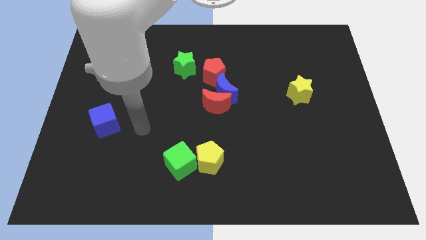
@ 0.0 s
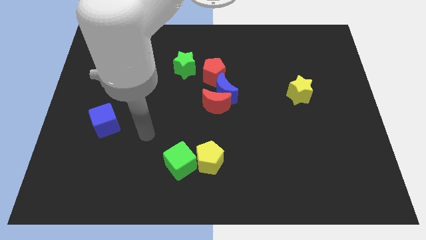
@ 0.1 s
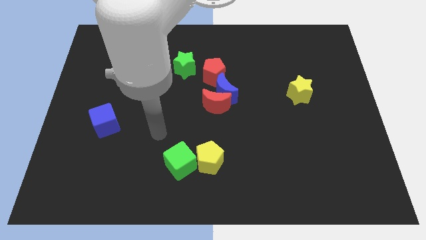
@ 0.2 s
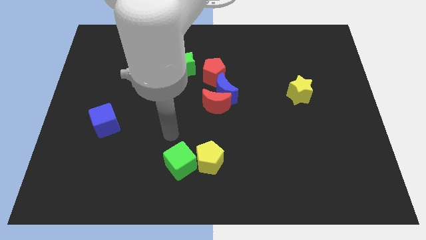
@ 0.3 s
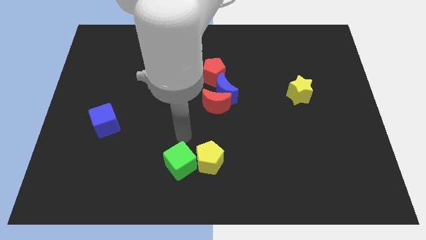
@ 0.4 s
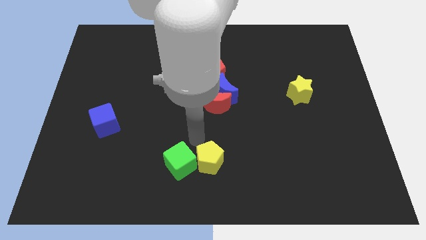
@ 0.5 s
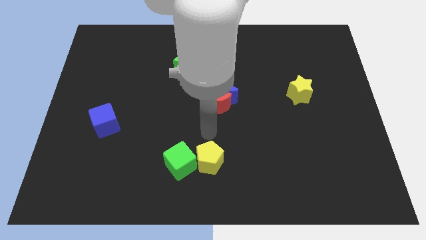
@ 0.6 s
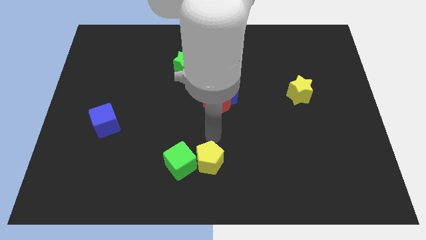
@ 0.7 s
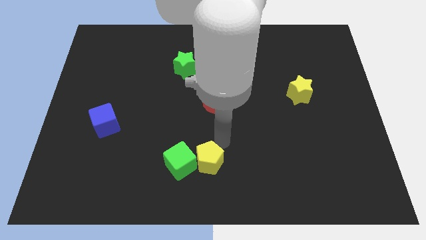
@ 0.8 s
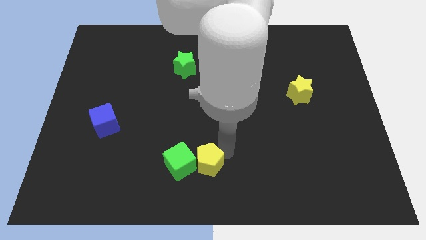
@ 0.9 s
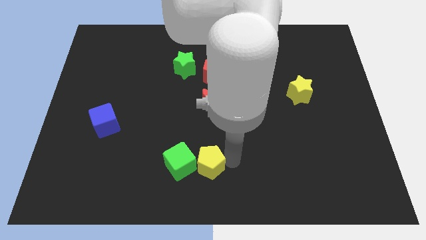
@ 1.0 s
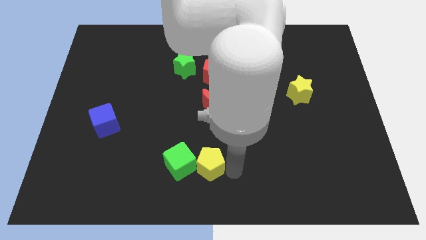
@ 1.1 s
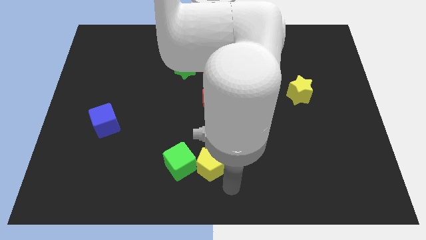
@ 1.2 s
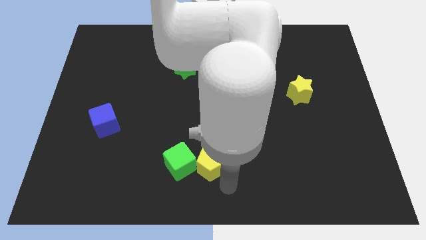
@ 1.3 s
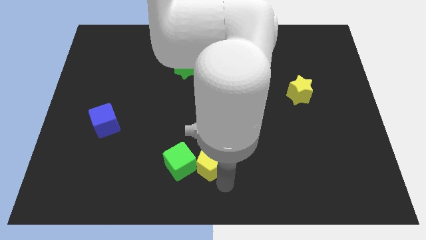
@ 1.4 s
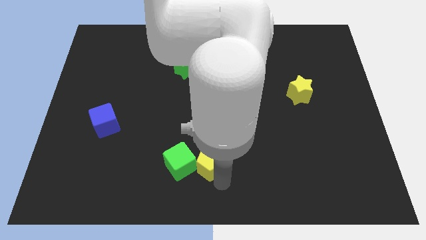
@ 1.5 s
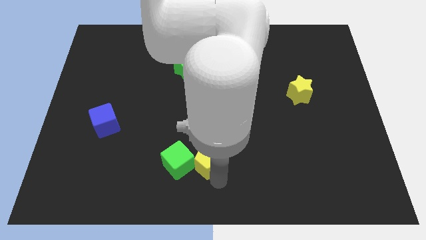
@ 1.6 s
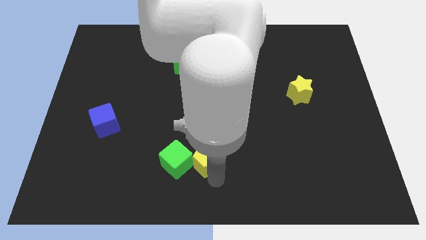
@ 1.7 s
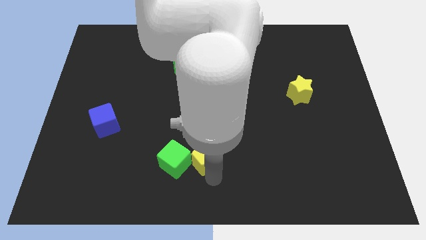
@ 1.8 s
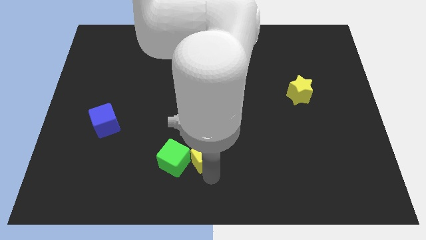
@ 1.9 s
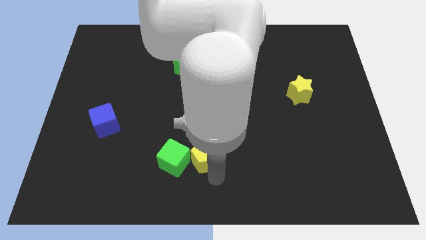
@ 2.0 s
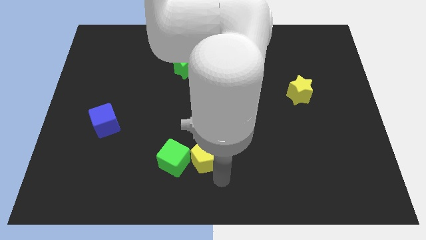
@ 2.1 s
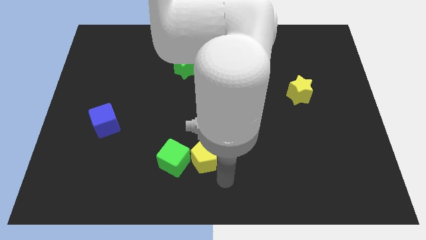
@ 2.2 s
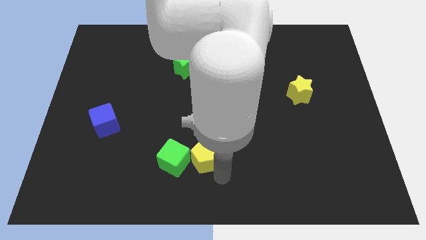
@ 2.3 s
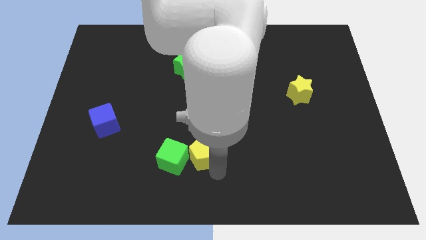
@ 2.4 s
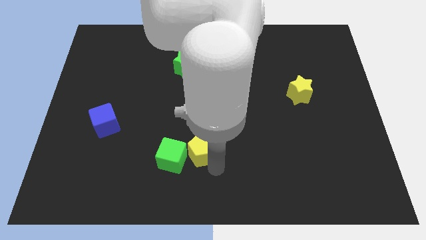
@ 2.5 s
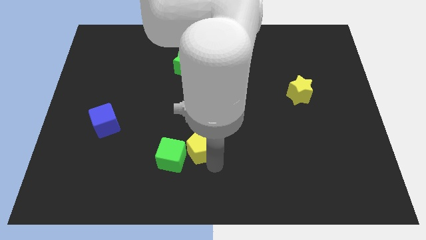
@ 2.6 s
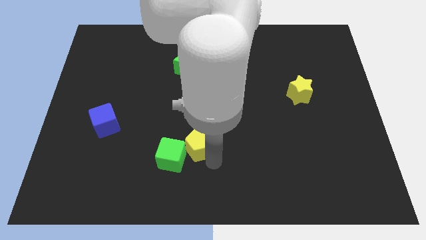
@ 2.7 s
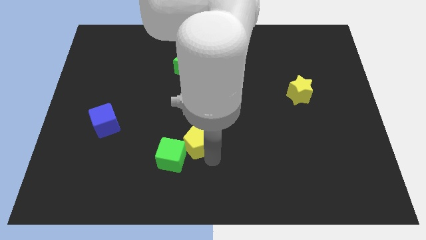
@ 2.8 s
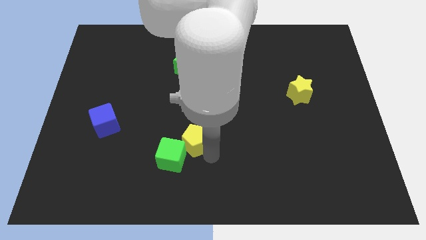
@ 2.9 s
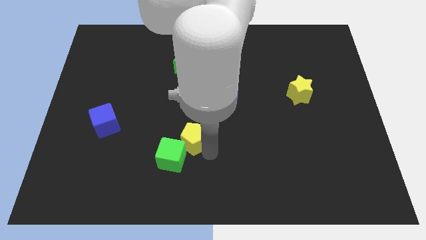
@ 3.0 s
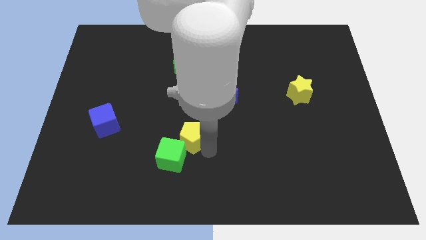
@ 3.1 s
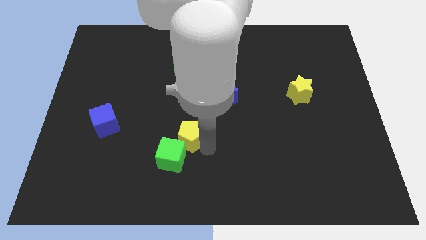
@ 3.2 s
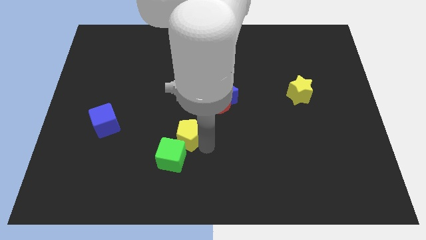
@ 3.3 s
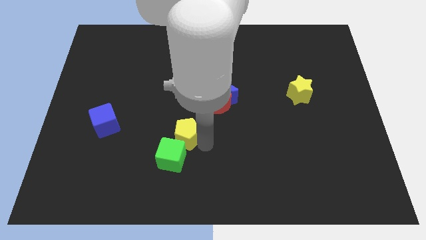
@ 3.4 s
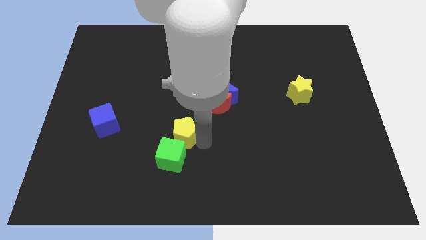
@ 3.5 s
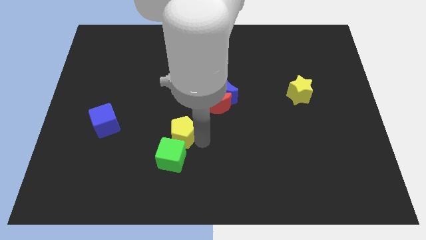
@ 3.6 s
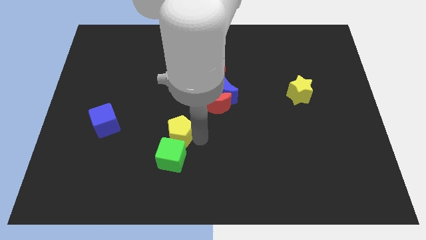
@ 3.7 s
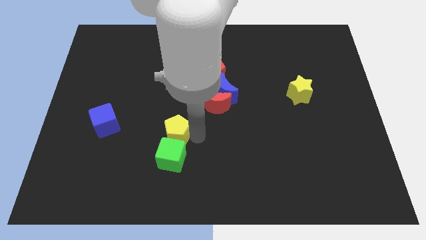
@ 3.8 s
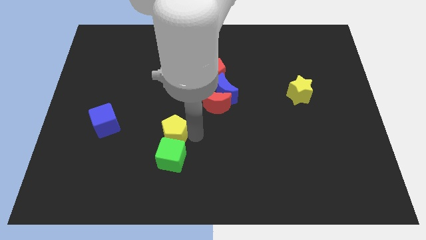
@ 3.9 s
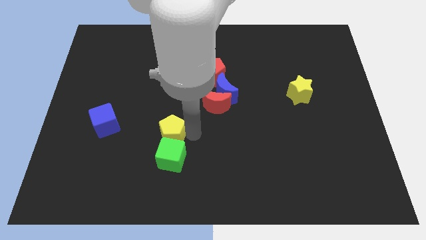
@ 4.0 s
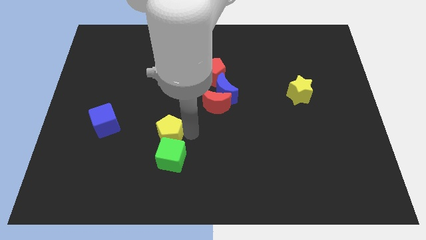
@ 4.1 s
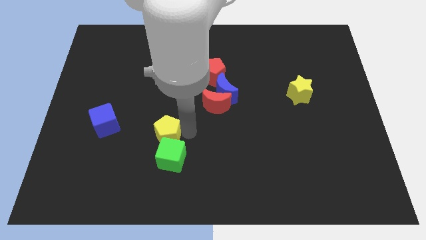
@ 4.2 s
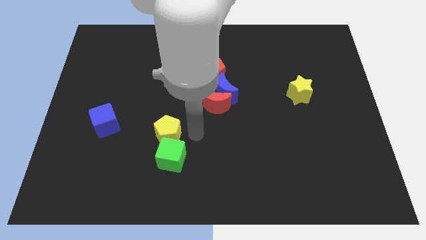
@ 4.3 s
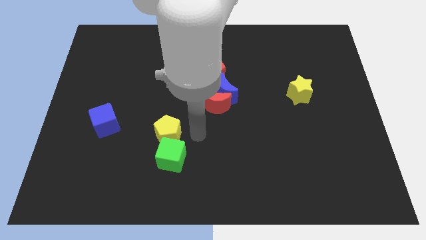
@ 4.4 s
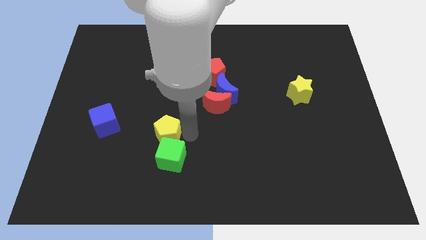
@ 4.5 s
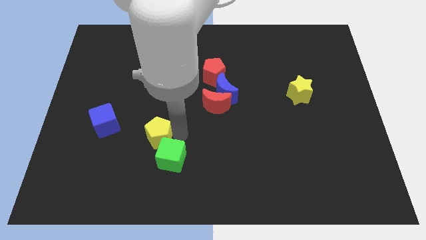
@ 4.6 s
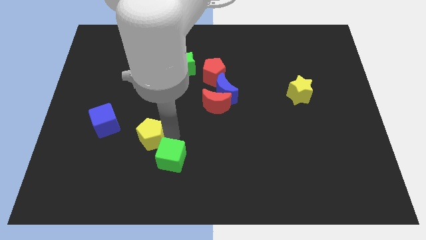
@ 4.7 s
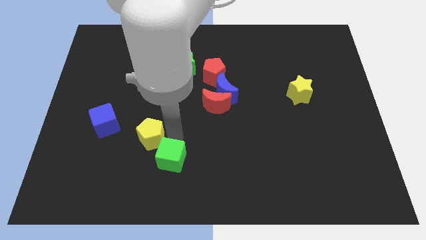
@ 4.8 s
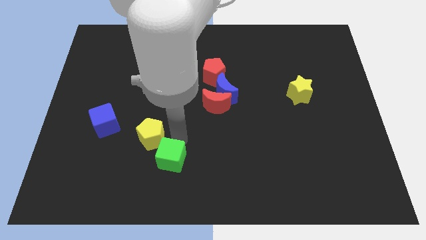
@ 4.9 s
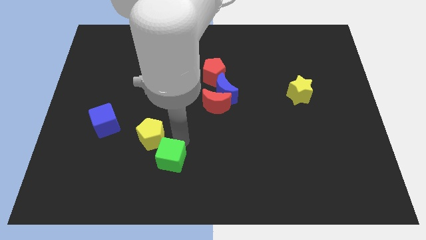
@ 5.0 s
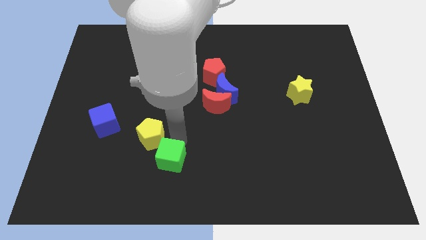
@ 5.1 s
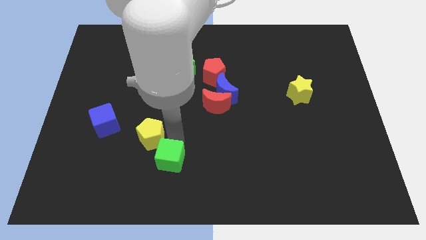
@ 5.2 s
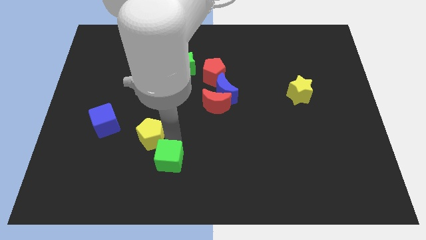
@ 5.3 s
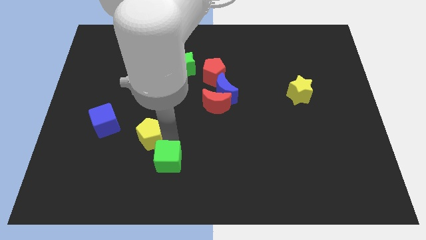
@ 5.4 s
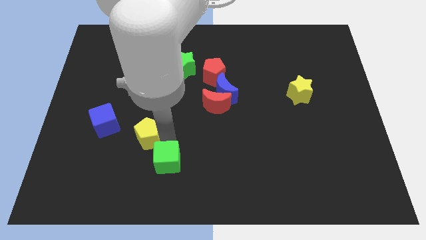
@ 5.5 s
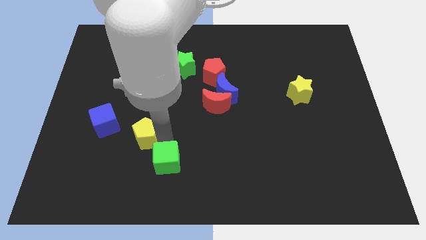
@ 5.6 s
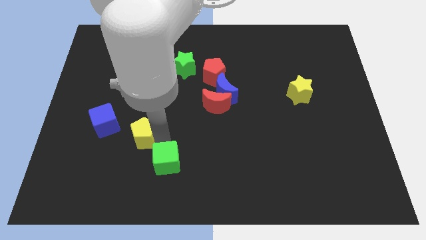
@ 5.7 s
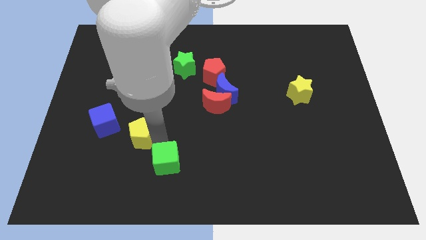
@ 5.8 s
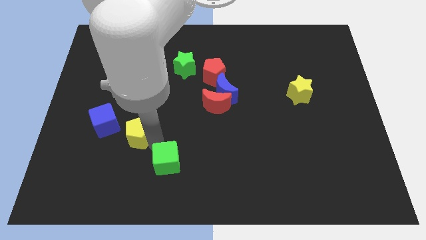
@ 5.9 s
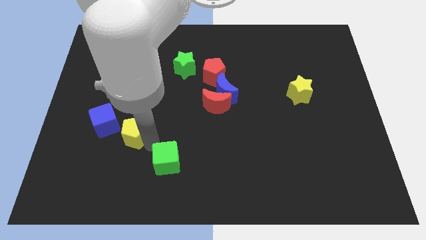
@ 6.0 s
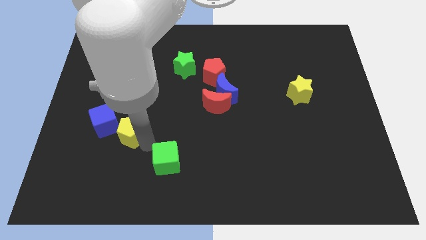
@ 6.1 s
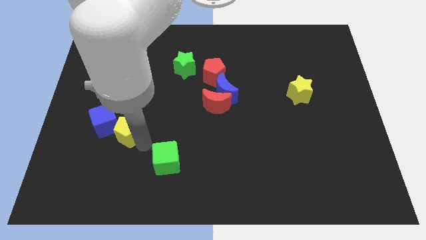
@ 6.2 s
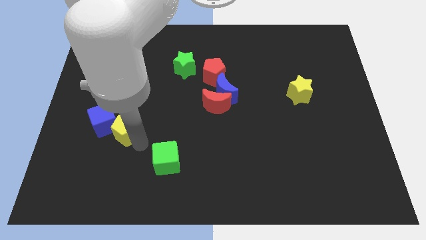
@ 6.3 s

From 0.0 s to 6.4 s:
push the yellow pentagon to the blue cube

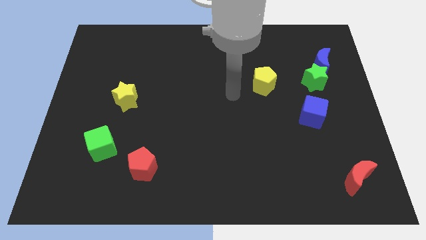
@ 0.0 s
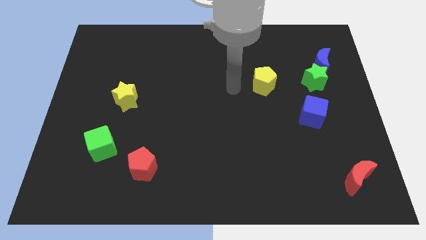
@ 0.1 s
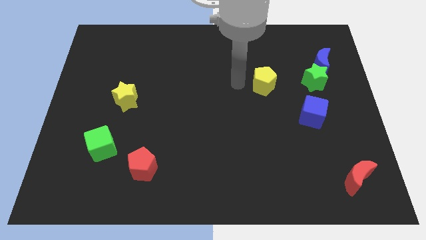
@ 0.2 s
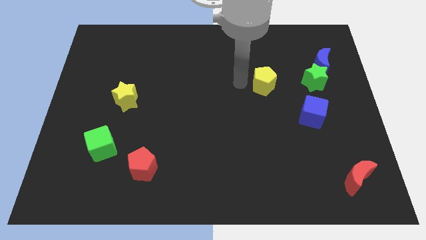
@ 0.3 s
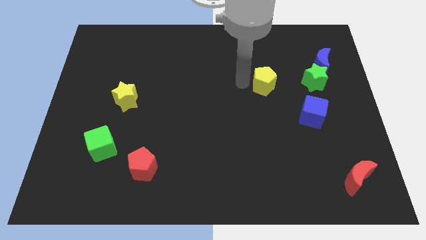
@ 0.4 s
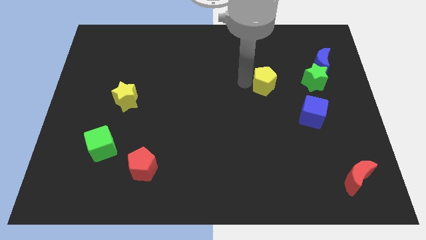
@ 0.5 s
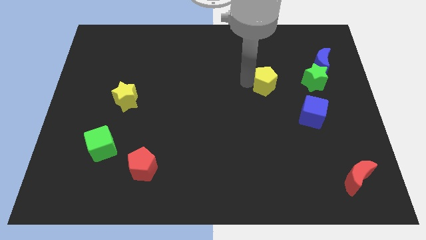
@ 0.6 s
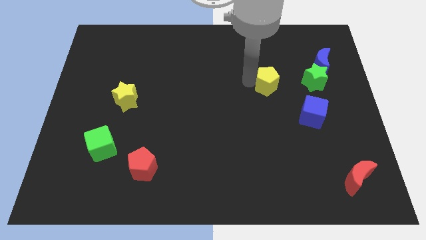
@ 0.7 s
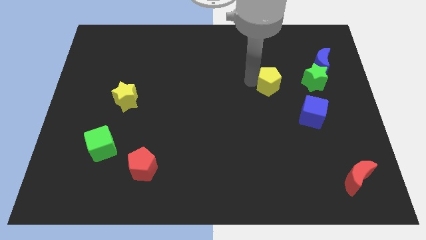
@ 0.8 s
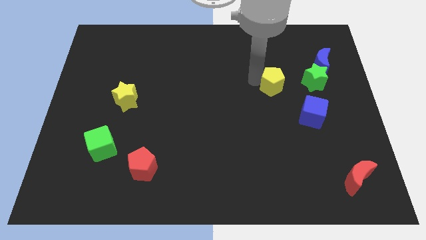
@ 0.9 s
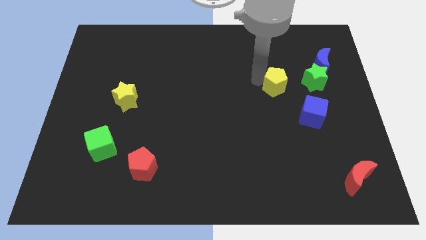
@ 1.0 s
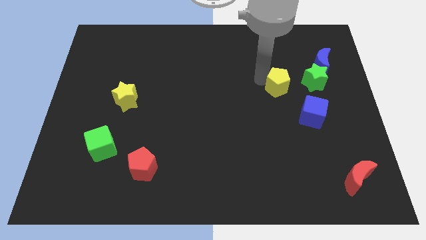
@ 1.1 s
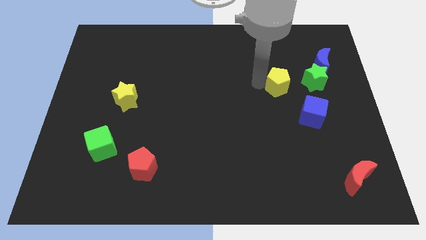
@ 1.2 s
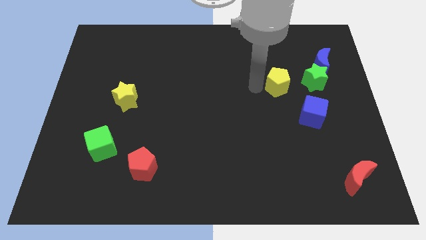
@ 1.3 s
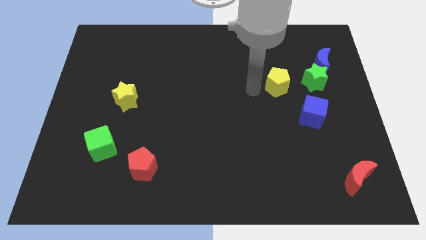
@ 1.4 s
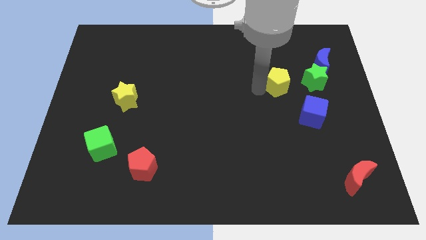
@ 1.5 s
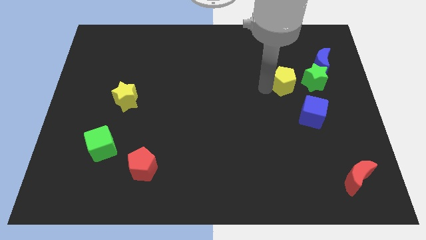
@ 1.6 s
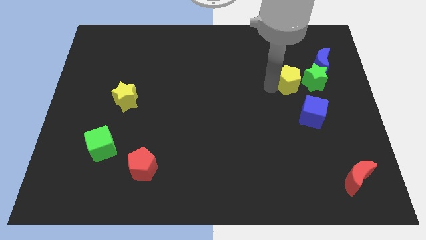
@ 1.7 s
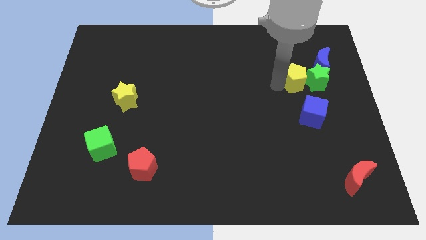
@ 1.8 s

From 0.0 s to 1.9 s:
slide the yellow pentagon next to the green star
